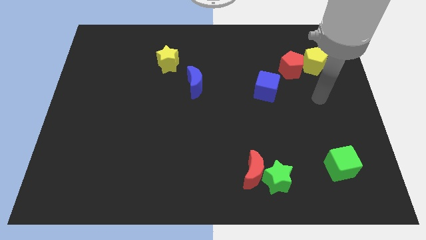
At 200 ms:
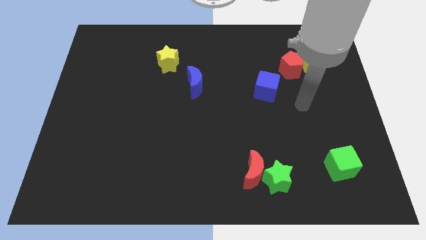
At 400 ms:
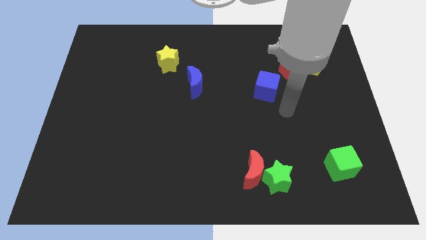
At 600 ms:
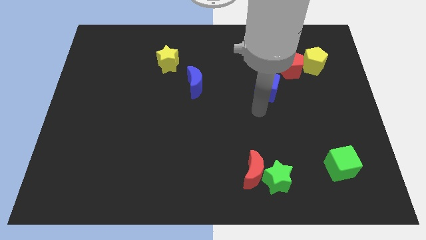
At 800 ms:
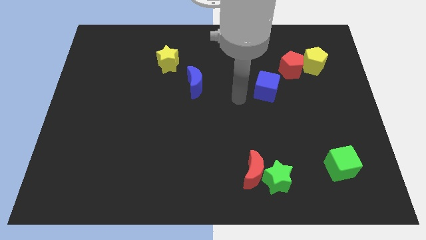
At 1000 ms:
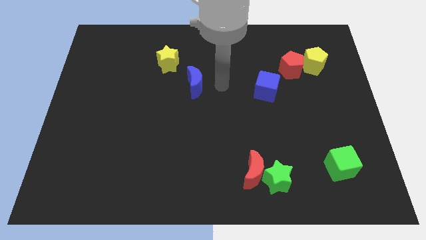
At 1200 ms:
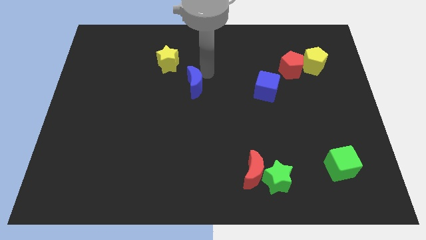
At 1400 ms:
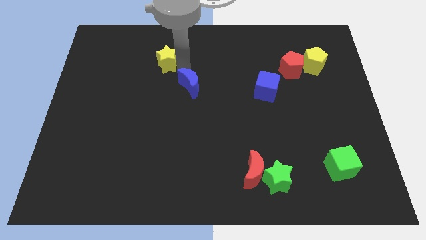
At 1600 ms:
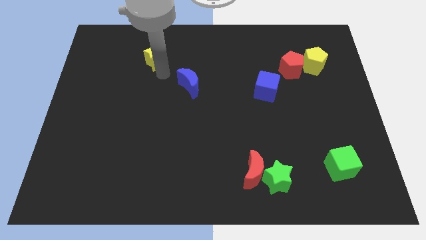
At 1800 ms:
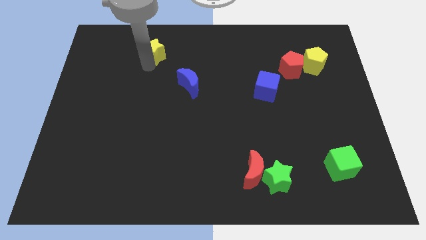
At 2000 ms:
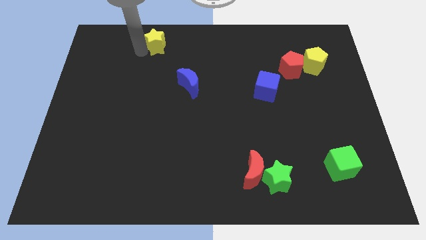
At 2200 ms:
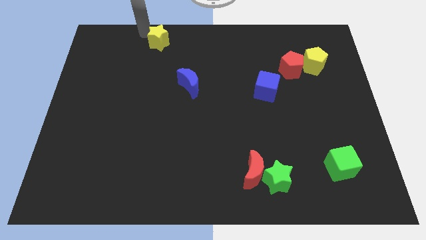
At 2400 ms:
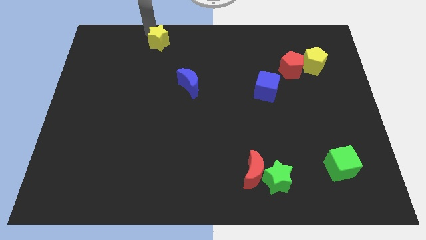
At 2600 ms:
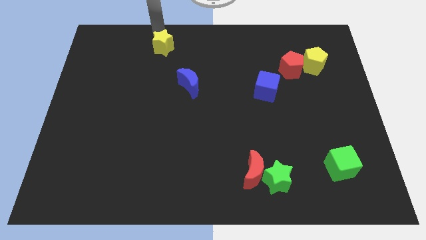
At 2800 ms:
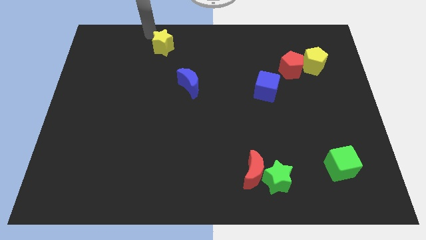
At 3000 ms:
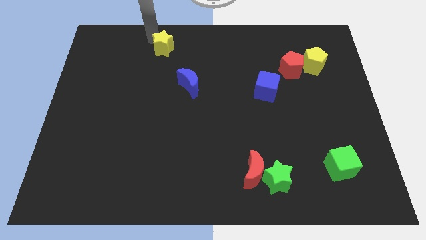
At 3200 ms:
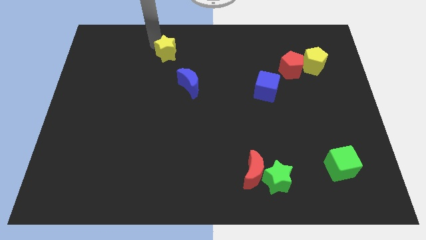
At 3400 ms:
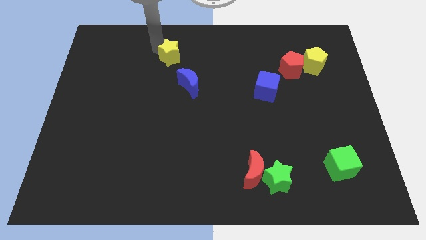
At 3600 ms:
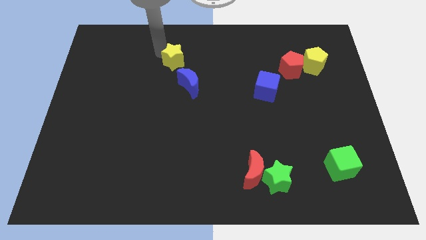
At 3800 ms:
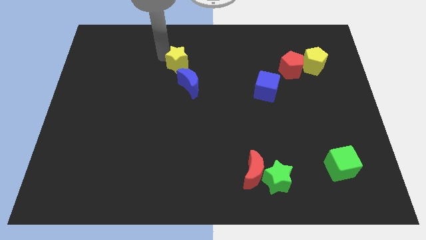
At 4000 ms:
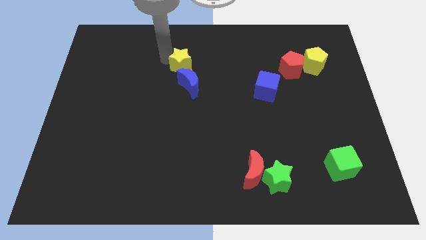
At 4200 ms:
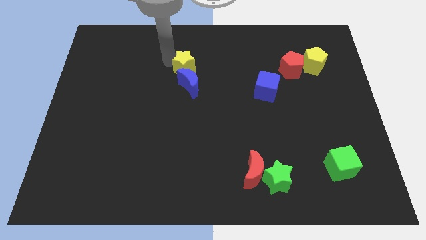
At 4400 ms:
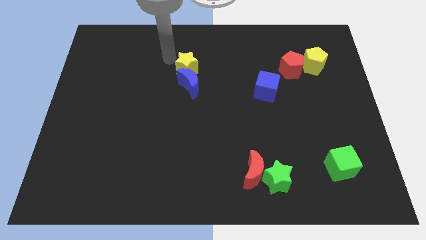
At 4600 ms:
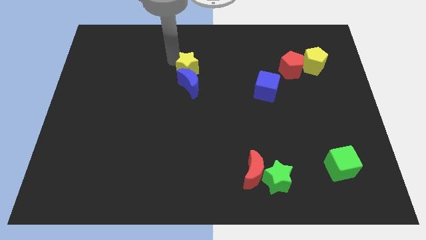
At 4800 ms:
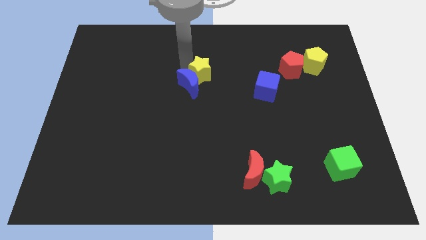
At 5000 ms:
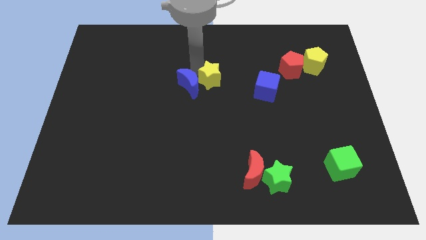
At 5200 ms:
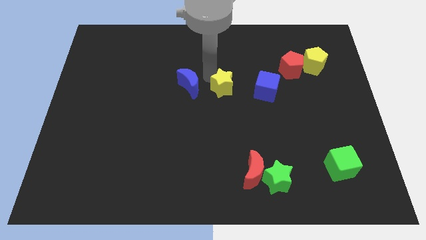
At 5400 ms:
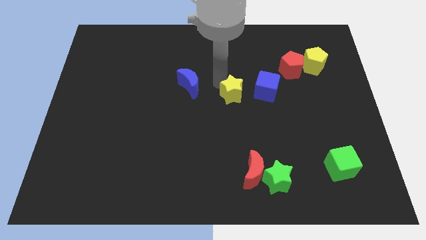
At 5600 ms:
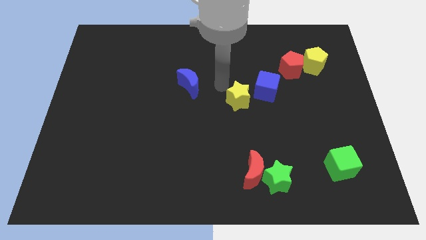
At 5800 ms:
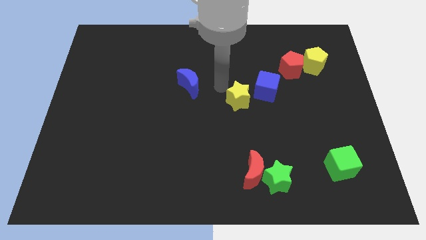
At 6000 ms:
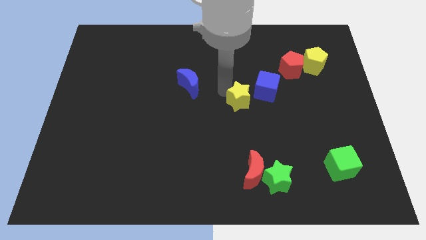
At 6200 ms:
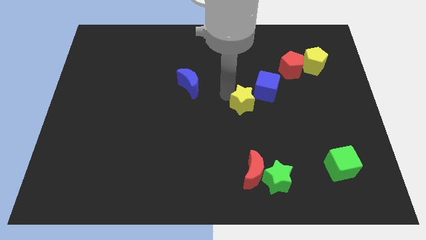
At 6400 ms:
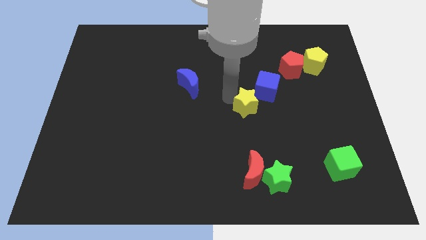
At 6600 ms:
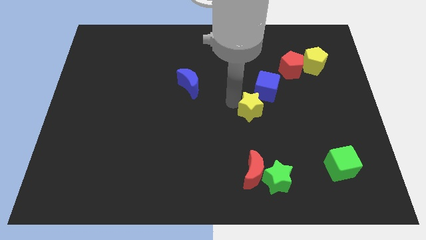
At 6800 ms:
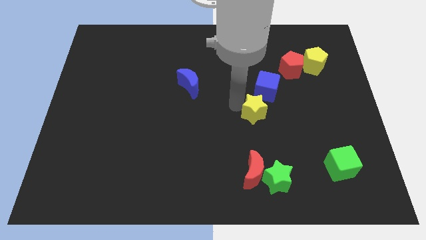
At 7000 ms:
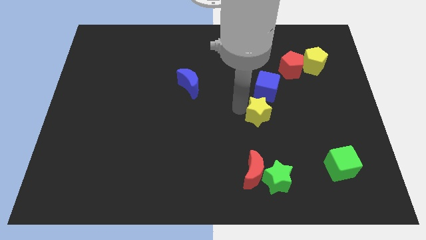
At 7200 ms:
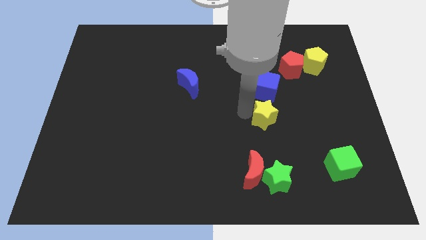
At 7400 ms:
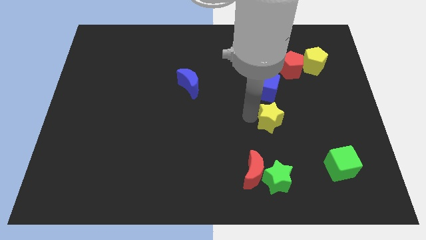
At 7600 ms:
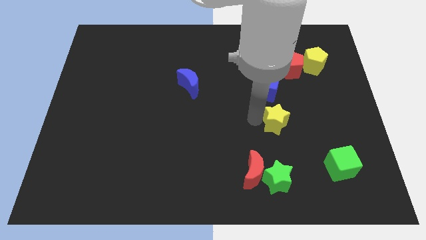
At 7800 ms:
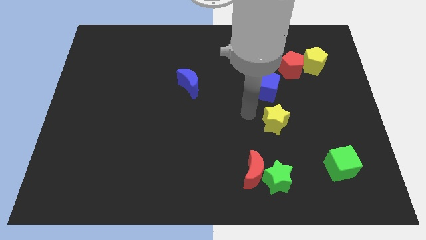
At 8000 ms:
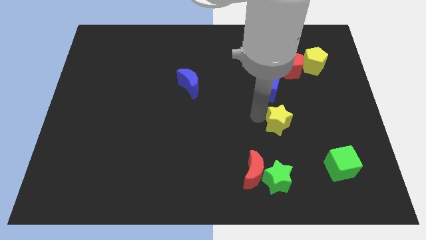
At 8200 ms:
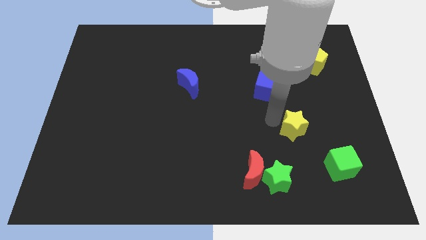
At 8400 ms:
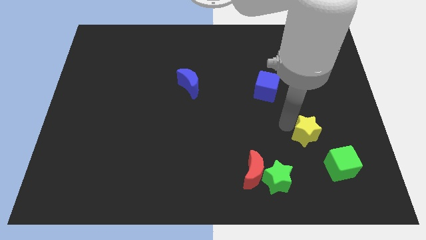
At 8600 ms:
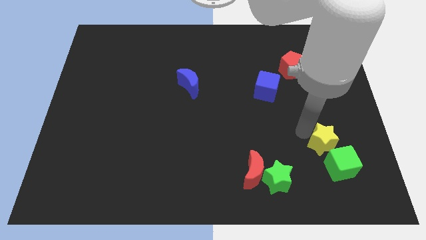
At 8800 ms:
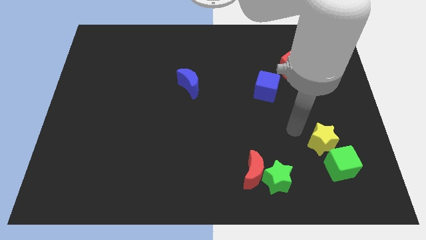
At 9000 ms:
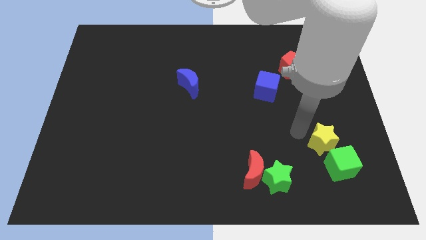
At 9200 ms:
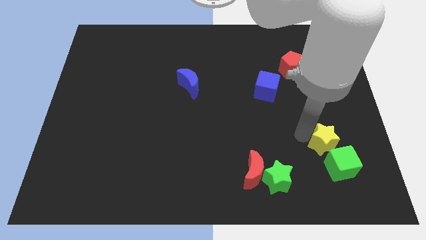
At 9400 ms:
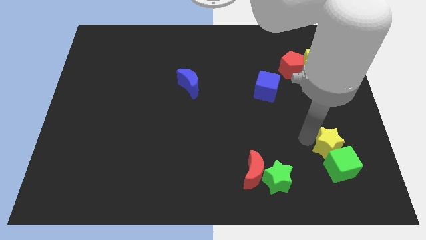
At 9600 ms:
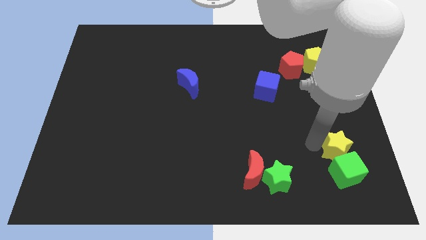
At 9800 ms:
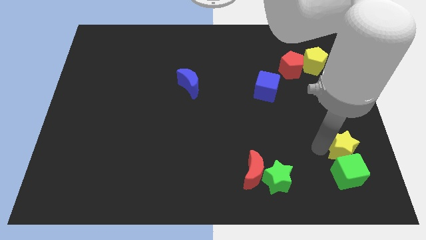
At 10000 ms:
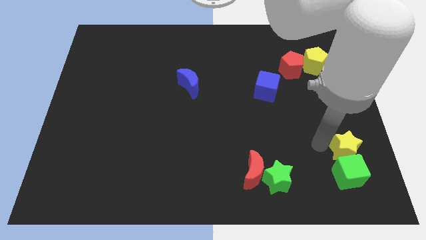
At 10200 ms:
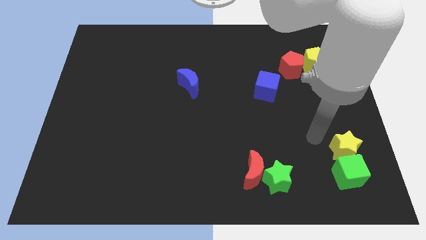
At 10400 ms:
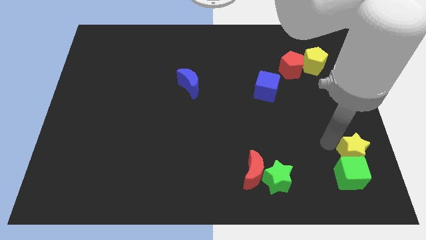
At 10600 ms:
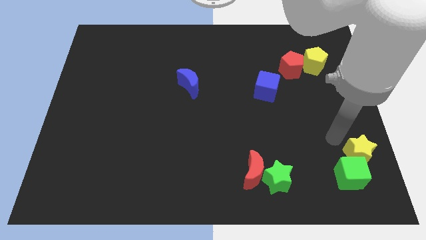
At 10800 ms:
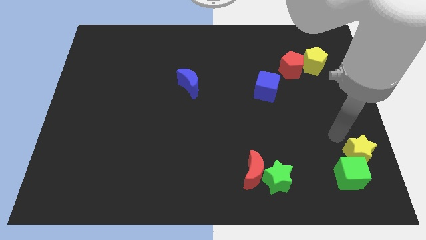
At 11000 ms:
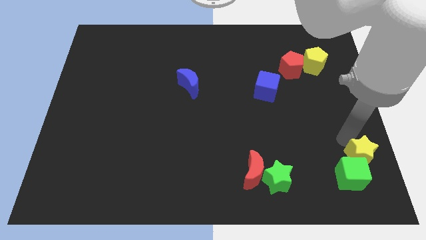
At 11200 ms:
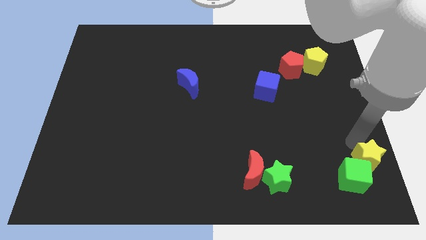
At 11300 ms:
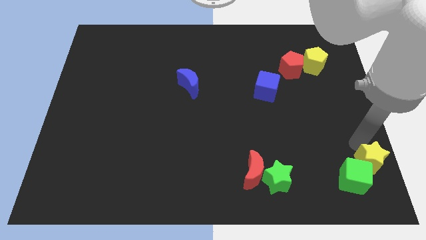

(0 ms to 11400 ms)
slide the yellow star to the lower right corner
